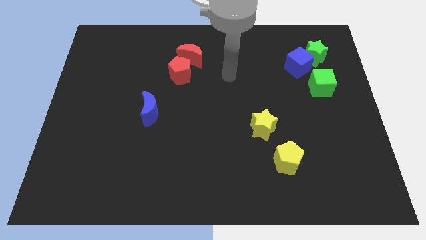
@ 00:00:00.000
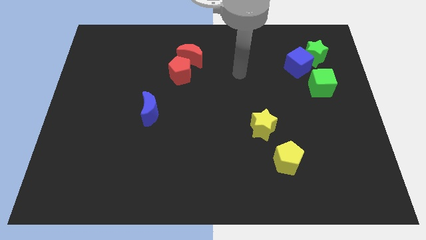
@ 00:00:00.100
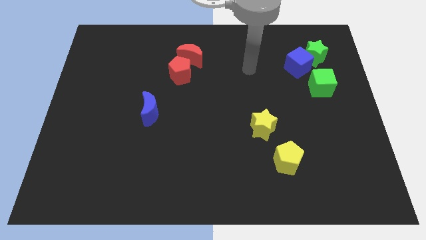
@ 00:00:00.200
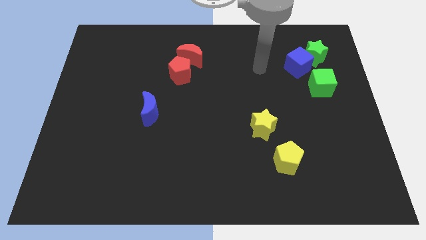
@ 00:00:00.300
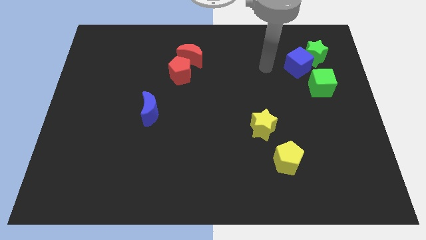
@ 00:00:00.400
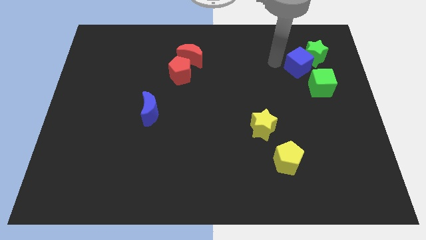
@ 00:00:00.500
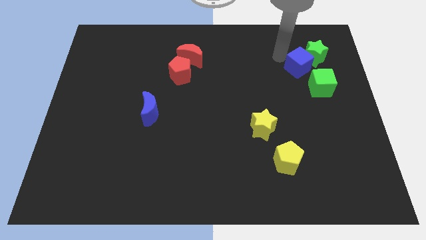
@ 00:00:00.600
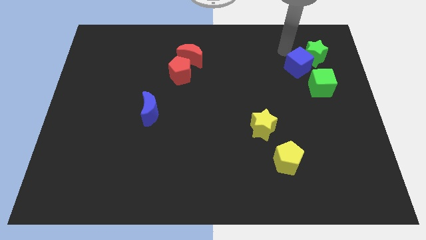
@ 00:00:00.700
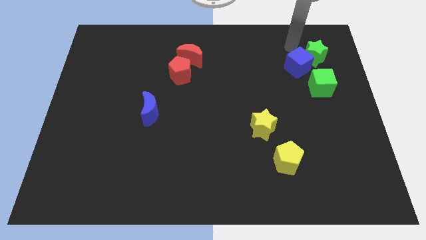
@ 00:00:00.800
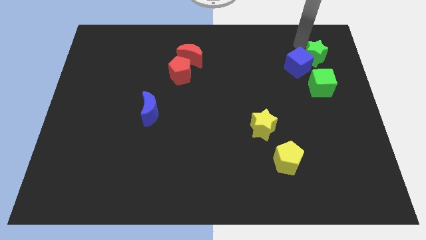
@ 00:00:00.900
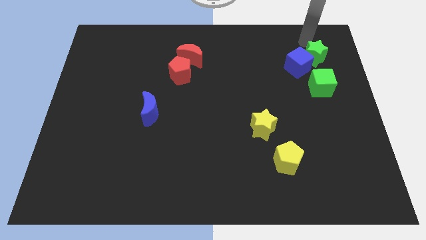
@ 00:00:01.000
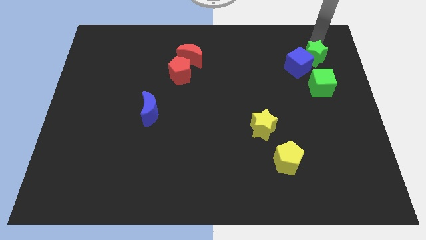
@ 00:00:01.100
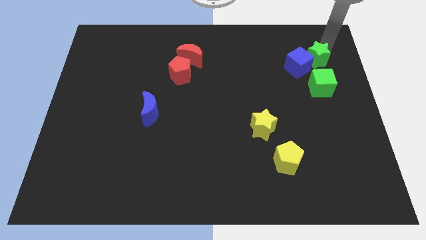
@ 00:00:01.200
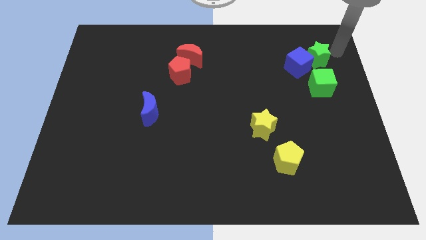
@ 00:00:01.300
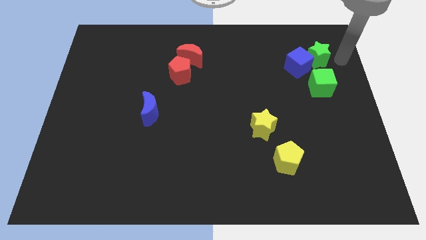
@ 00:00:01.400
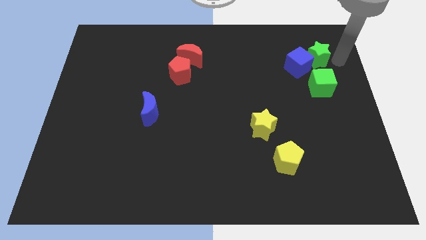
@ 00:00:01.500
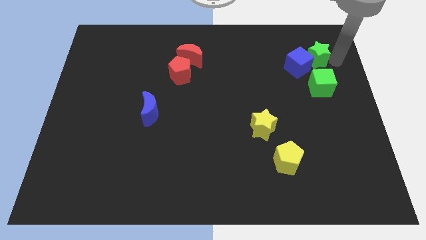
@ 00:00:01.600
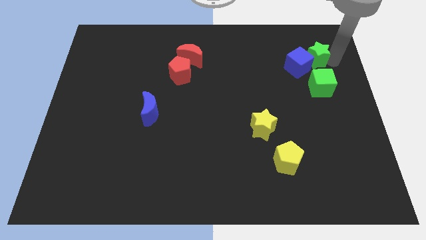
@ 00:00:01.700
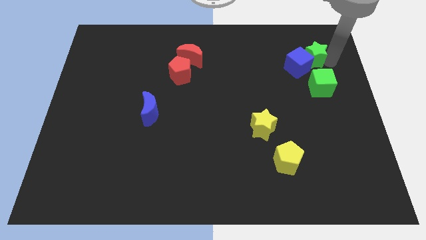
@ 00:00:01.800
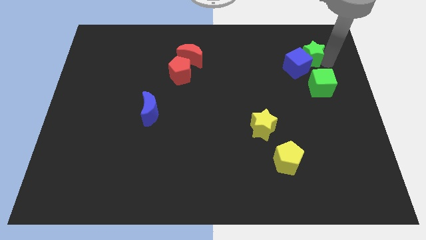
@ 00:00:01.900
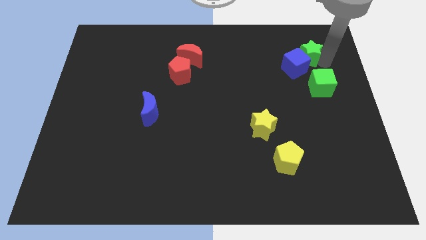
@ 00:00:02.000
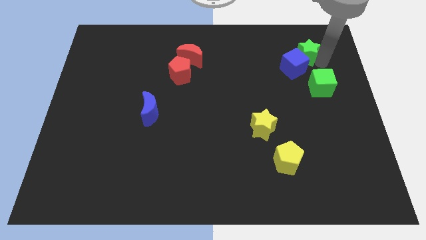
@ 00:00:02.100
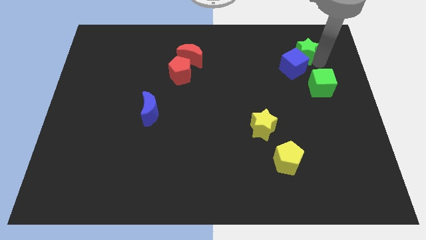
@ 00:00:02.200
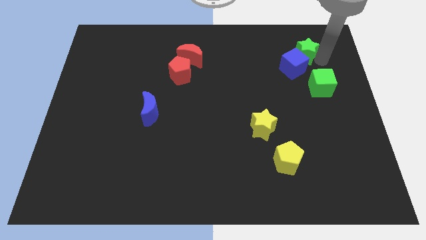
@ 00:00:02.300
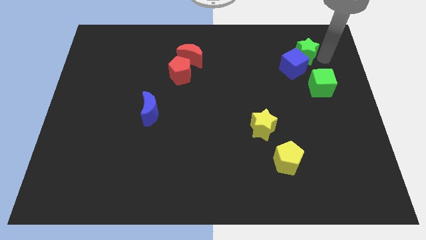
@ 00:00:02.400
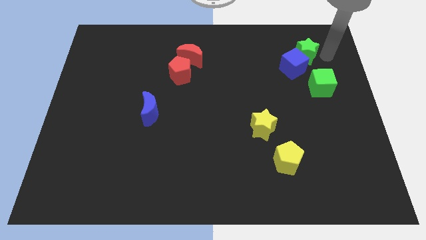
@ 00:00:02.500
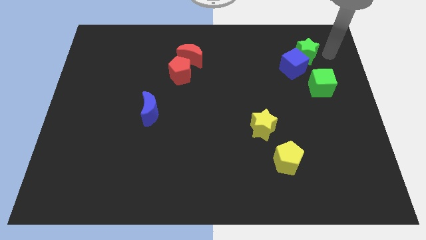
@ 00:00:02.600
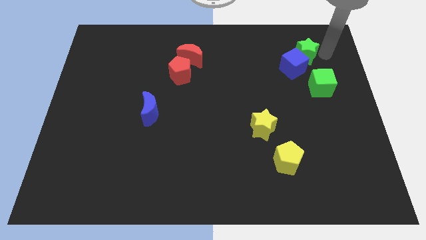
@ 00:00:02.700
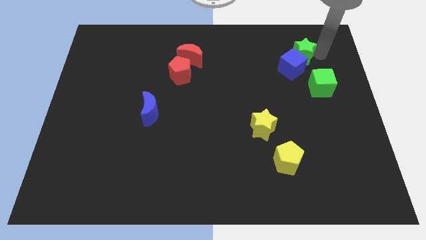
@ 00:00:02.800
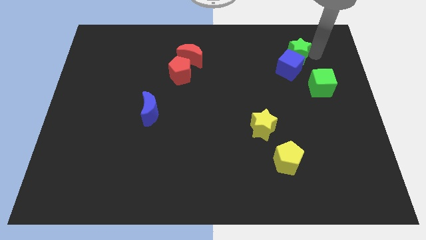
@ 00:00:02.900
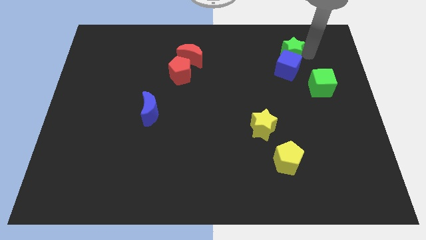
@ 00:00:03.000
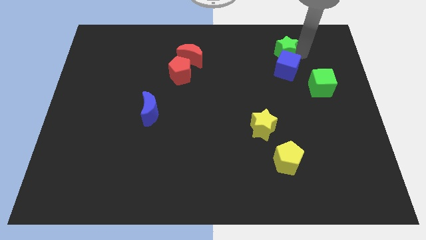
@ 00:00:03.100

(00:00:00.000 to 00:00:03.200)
move the green star left a bit

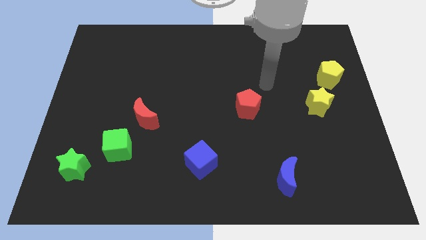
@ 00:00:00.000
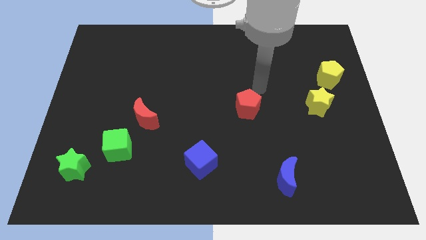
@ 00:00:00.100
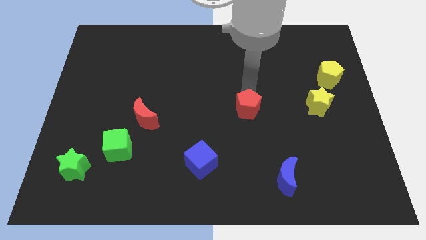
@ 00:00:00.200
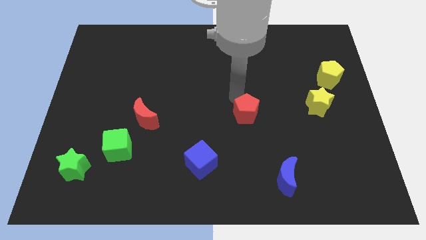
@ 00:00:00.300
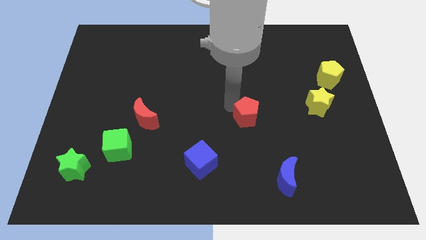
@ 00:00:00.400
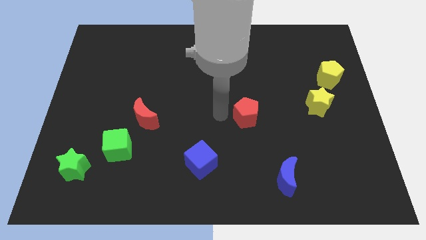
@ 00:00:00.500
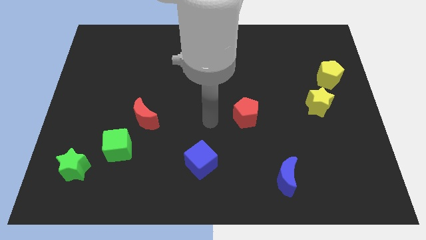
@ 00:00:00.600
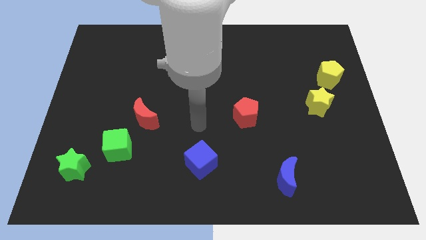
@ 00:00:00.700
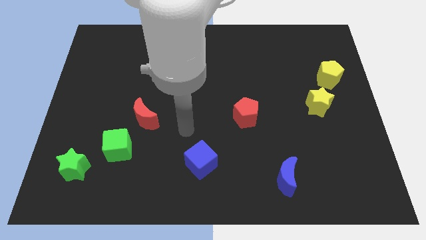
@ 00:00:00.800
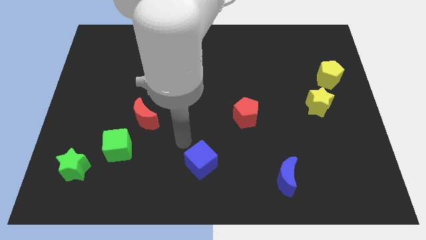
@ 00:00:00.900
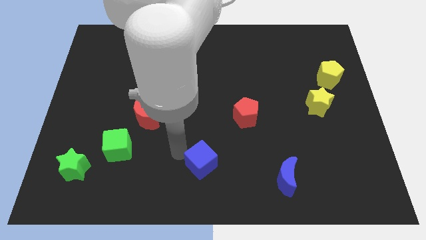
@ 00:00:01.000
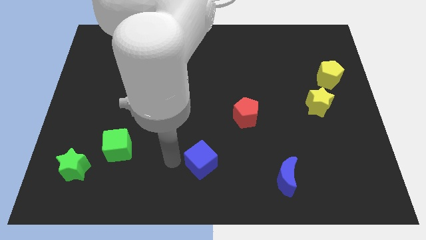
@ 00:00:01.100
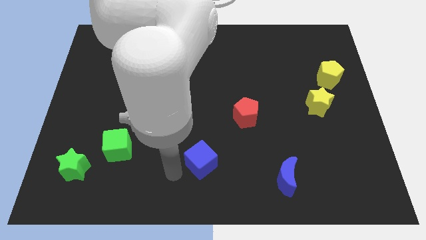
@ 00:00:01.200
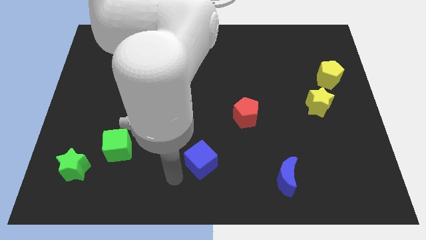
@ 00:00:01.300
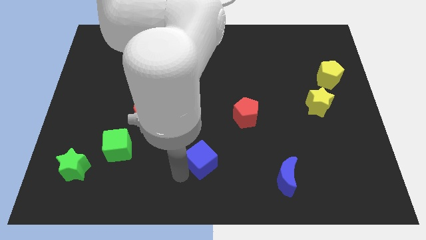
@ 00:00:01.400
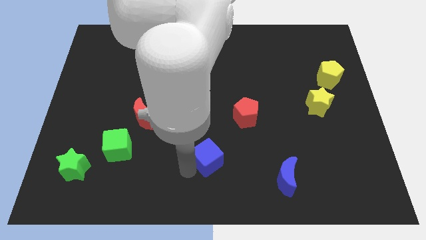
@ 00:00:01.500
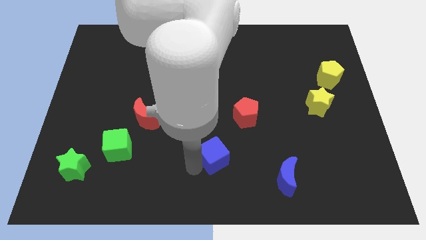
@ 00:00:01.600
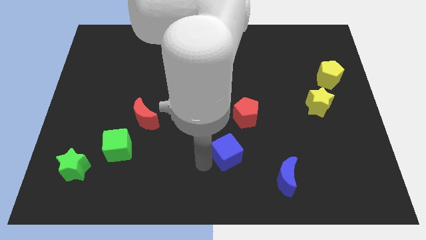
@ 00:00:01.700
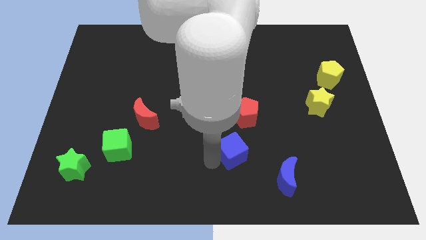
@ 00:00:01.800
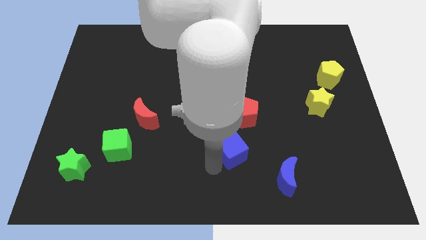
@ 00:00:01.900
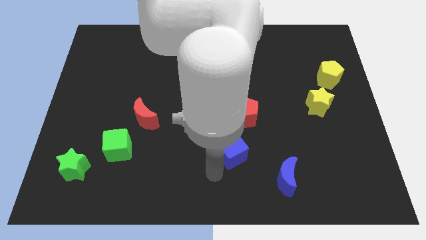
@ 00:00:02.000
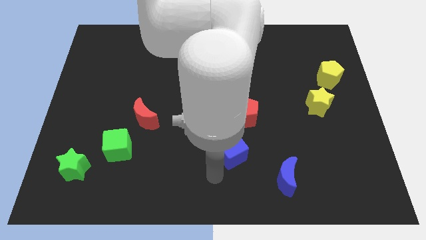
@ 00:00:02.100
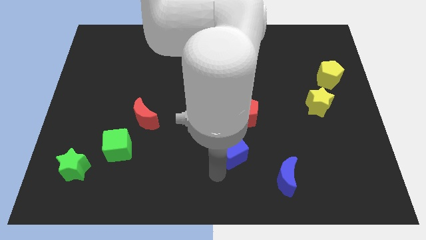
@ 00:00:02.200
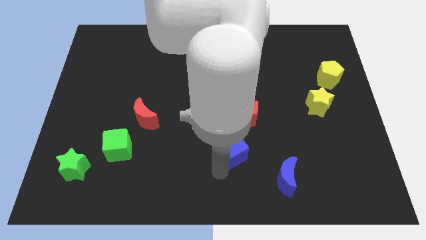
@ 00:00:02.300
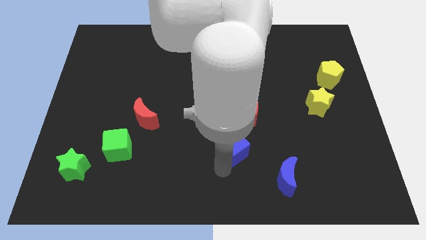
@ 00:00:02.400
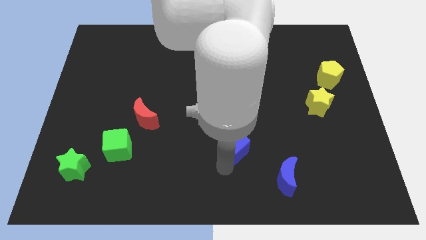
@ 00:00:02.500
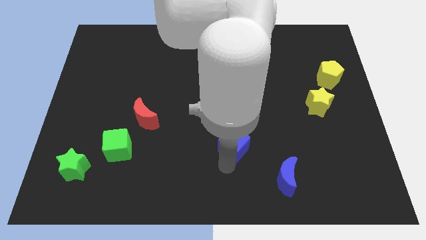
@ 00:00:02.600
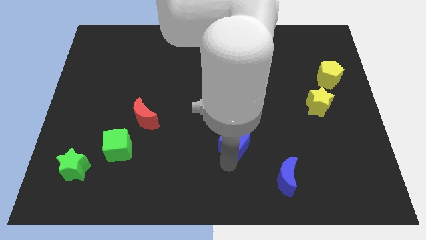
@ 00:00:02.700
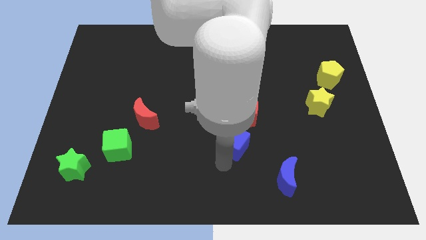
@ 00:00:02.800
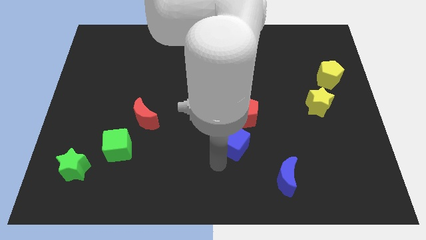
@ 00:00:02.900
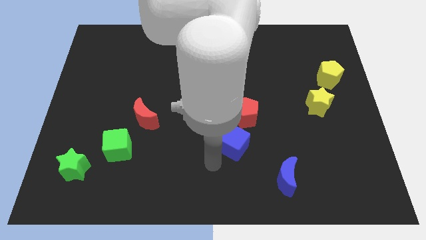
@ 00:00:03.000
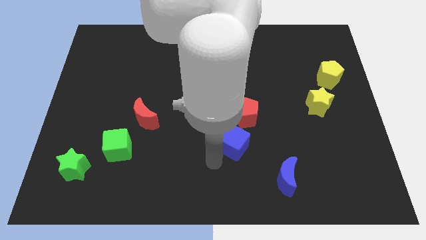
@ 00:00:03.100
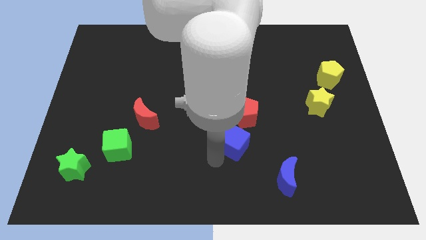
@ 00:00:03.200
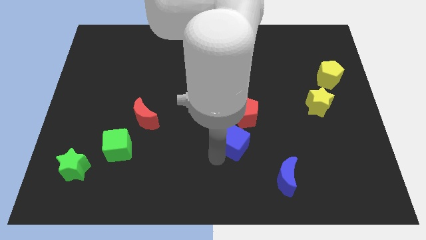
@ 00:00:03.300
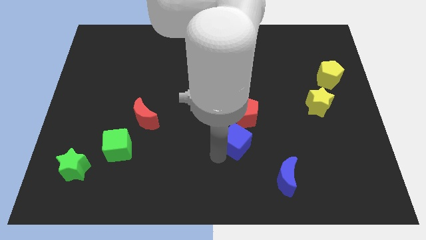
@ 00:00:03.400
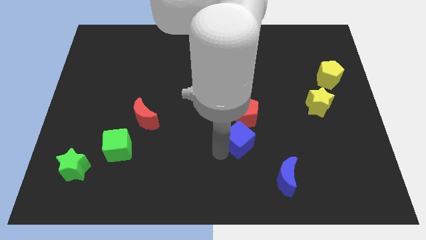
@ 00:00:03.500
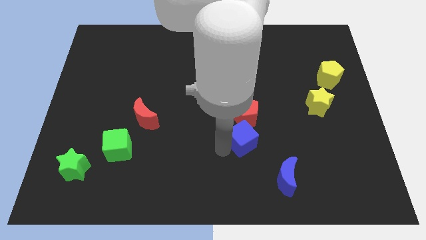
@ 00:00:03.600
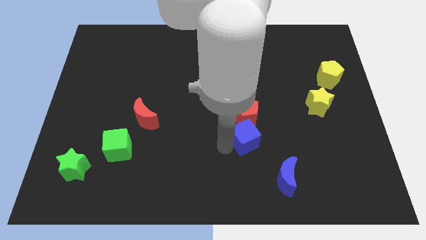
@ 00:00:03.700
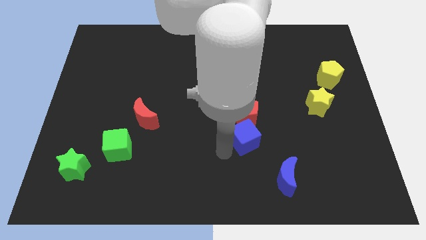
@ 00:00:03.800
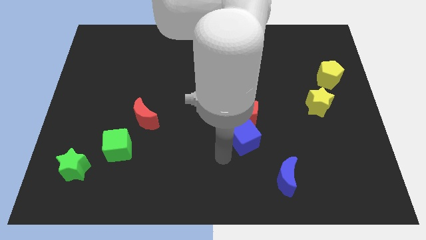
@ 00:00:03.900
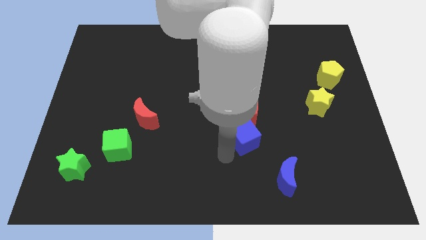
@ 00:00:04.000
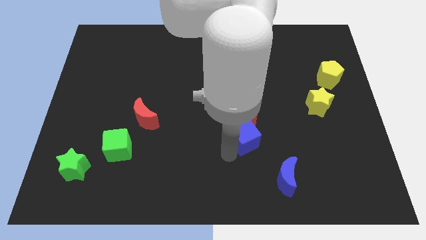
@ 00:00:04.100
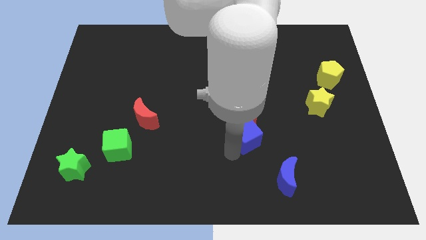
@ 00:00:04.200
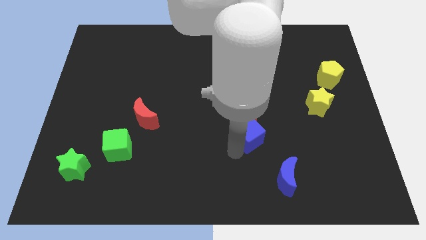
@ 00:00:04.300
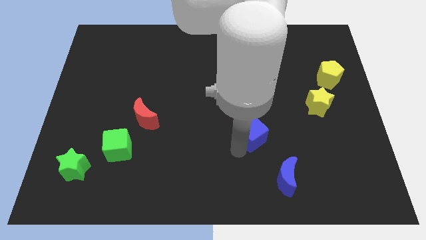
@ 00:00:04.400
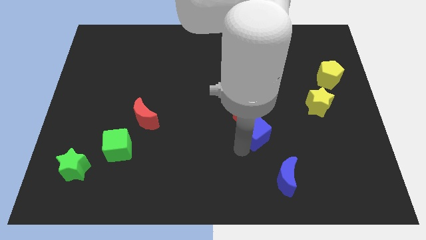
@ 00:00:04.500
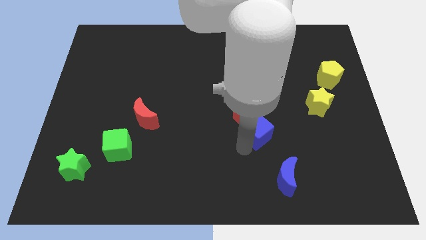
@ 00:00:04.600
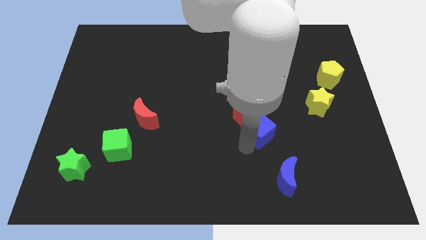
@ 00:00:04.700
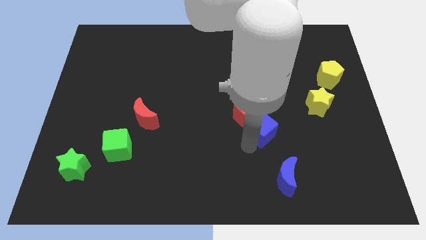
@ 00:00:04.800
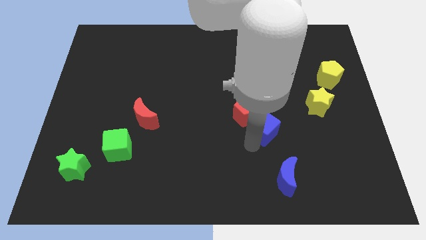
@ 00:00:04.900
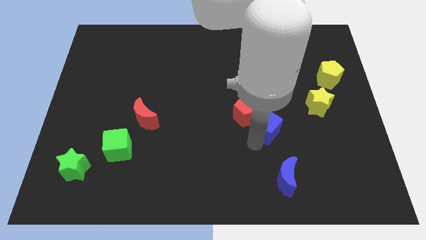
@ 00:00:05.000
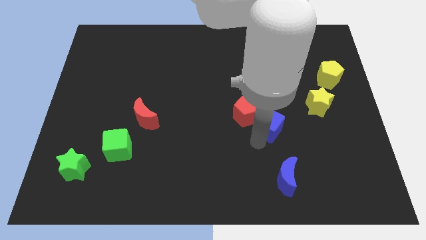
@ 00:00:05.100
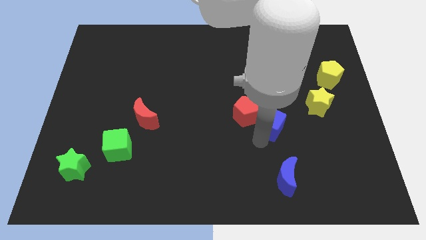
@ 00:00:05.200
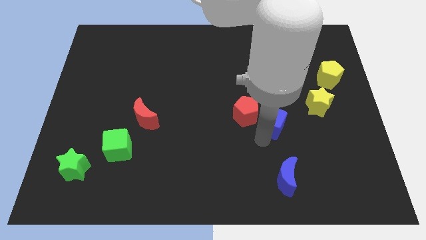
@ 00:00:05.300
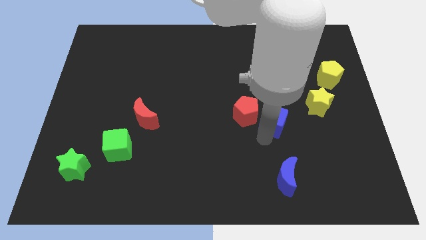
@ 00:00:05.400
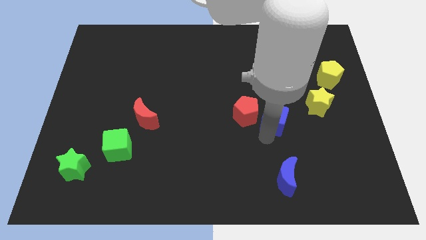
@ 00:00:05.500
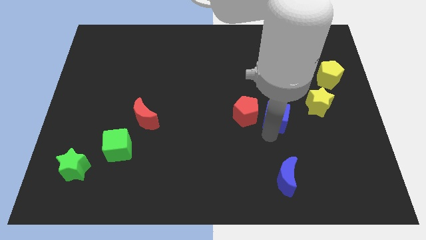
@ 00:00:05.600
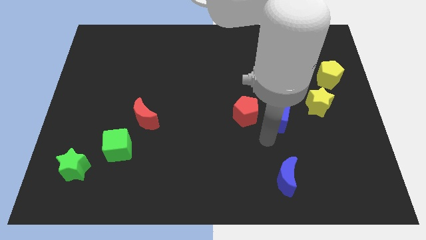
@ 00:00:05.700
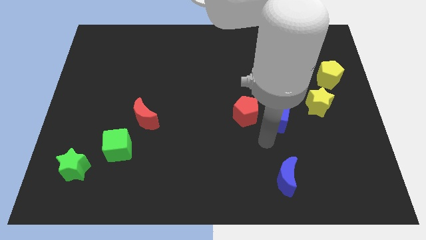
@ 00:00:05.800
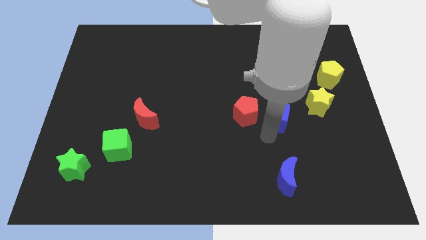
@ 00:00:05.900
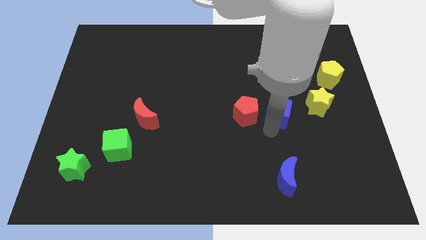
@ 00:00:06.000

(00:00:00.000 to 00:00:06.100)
move the blue cube upwards and right
